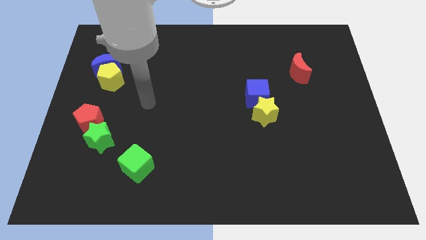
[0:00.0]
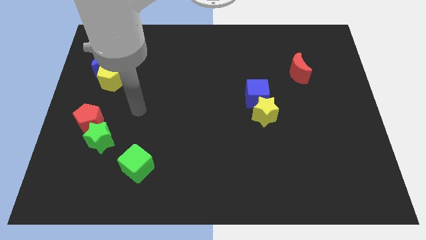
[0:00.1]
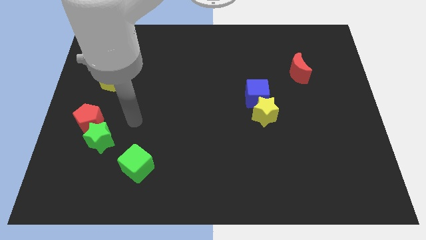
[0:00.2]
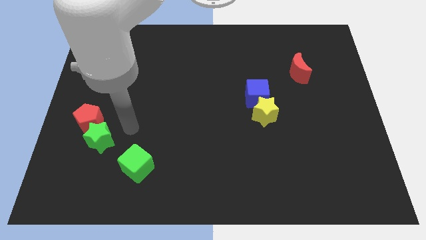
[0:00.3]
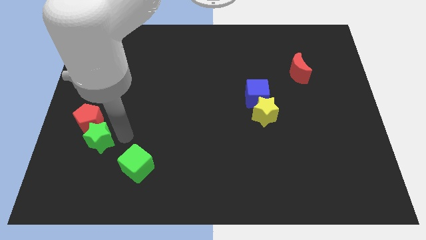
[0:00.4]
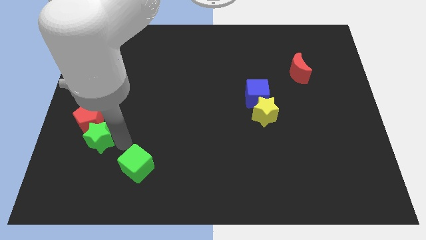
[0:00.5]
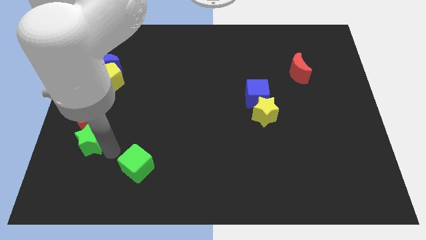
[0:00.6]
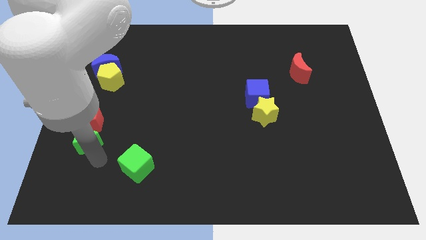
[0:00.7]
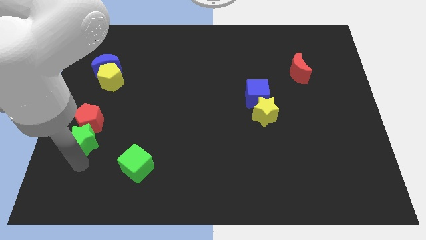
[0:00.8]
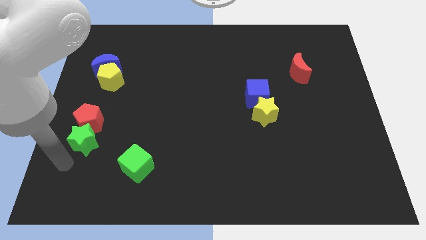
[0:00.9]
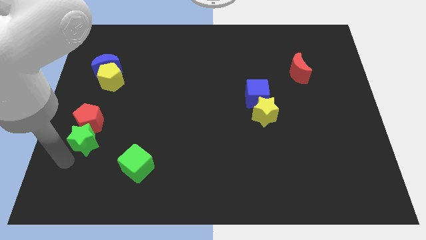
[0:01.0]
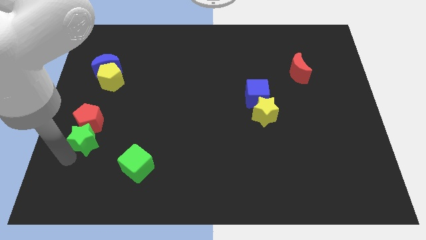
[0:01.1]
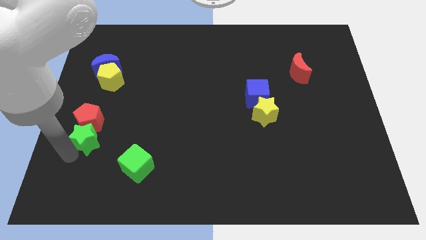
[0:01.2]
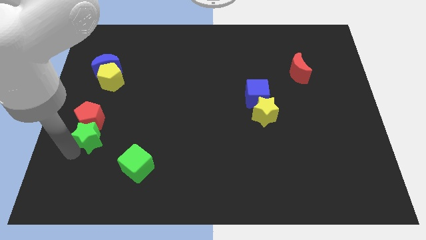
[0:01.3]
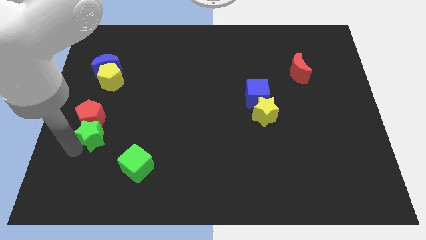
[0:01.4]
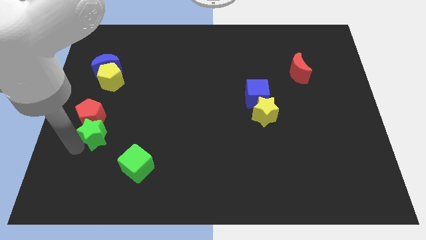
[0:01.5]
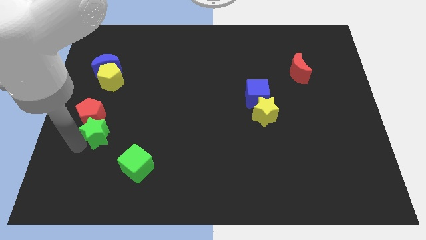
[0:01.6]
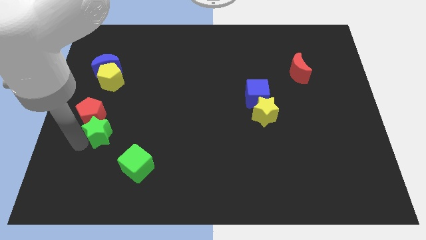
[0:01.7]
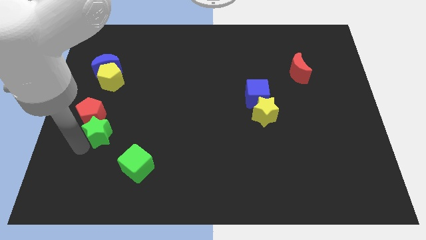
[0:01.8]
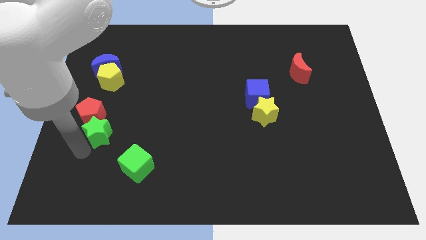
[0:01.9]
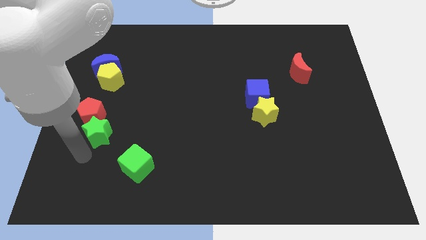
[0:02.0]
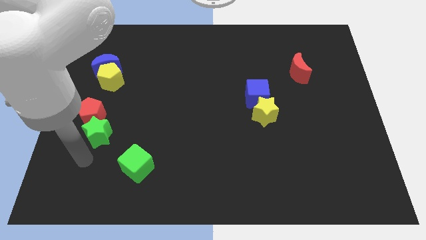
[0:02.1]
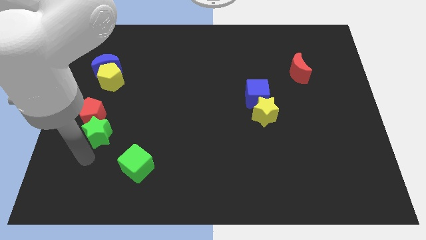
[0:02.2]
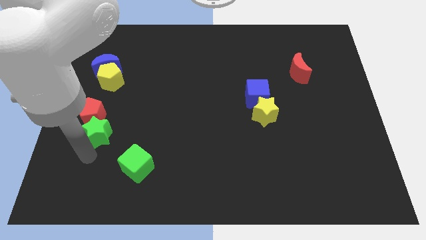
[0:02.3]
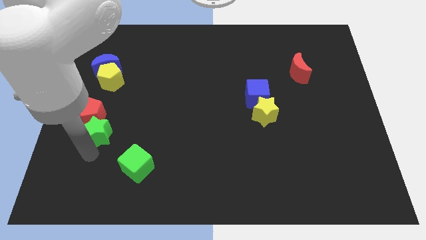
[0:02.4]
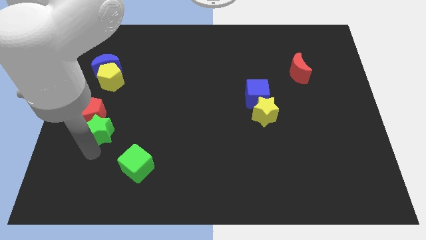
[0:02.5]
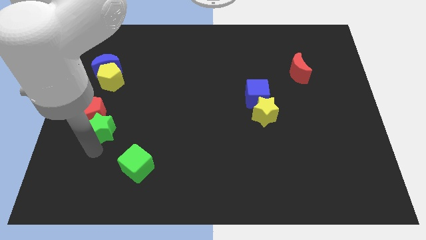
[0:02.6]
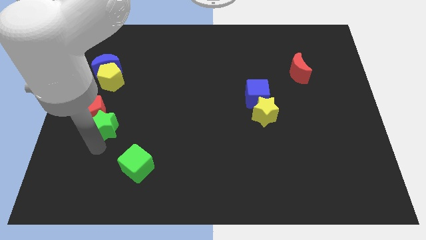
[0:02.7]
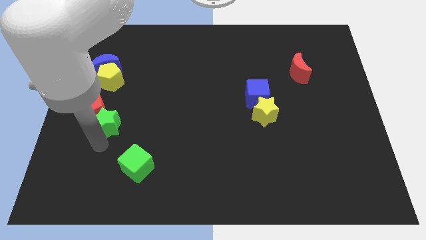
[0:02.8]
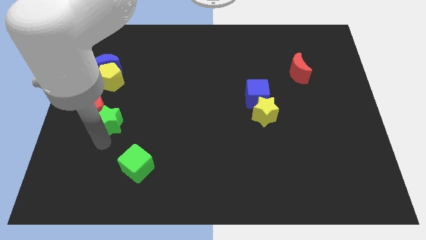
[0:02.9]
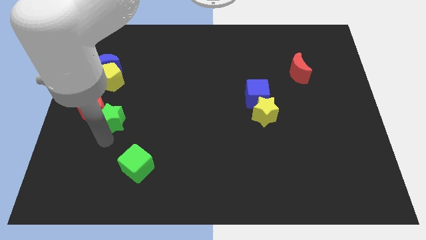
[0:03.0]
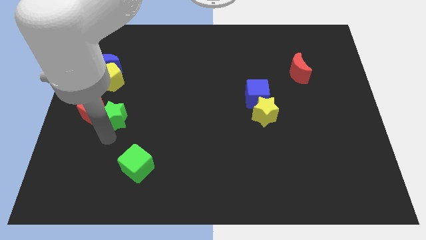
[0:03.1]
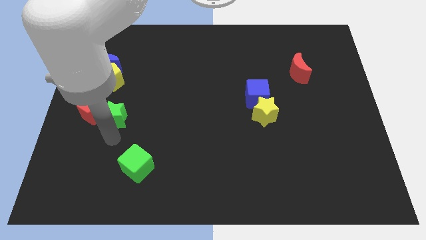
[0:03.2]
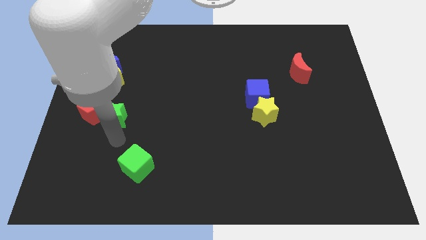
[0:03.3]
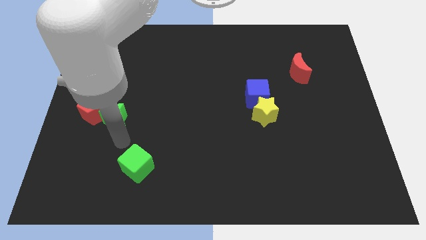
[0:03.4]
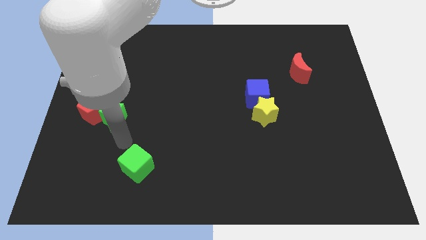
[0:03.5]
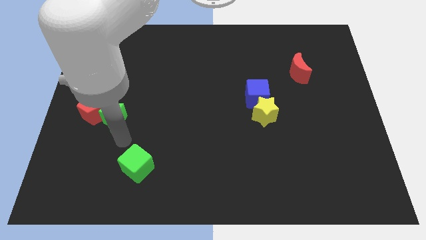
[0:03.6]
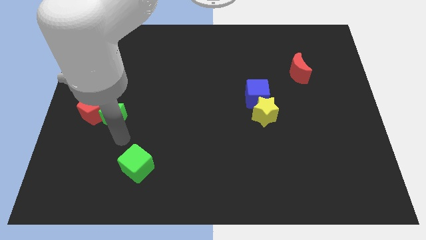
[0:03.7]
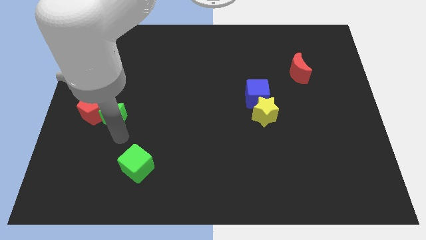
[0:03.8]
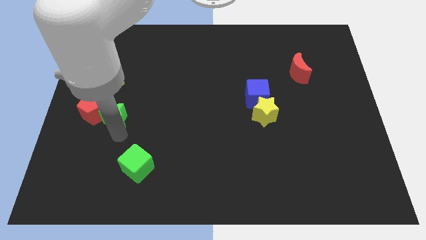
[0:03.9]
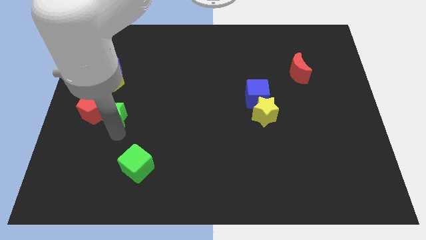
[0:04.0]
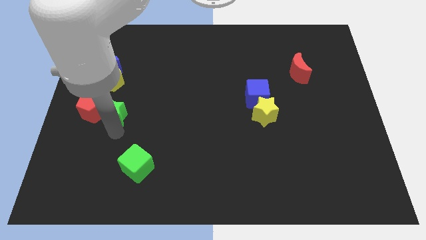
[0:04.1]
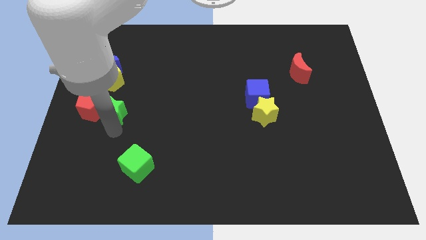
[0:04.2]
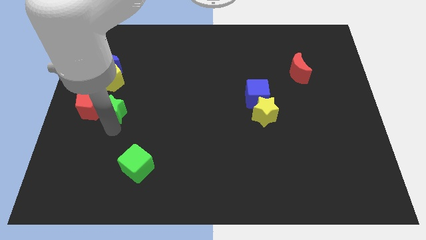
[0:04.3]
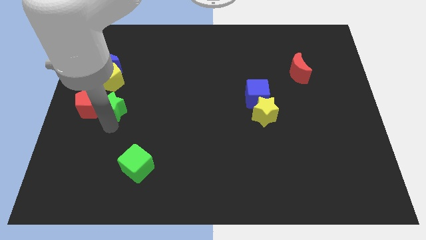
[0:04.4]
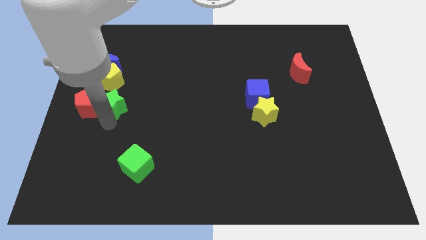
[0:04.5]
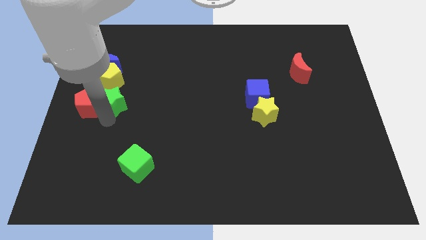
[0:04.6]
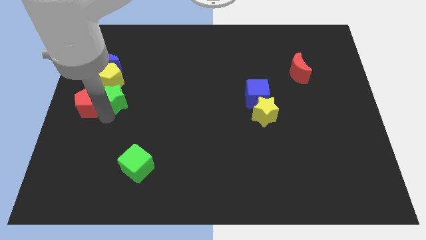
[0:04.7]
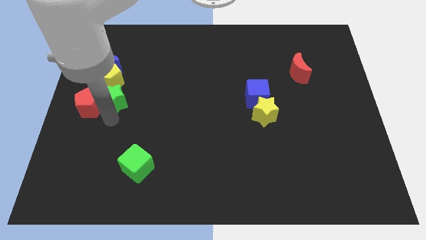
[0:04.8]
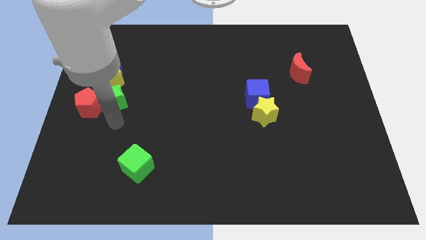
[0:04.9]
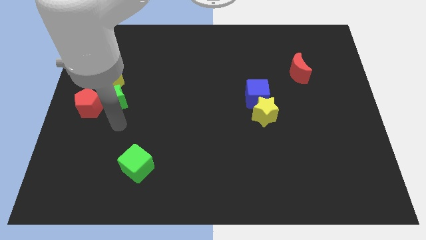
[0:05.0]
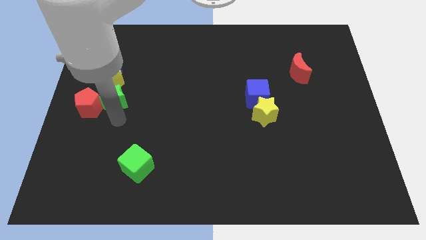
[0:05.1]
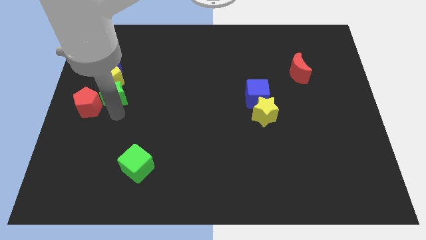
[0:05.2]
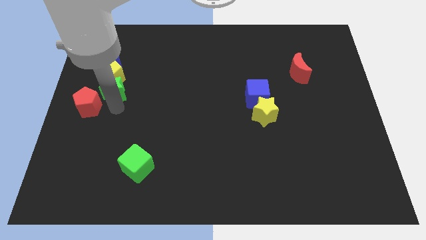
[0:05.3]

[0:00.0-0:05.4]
slide the green star next to the yellow pentagon

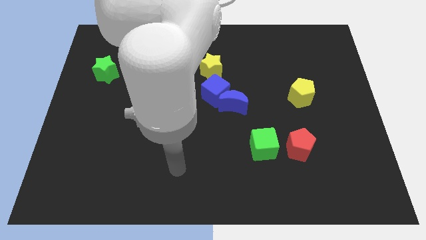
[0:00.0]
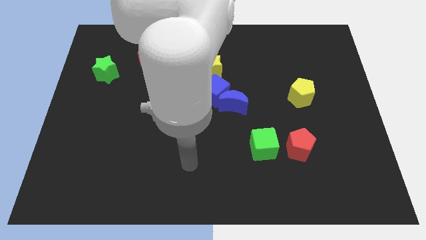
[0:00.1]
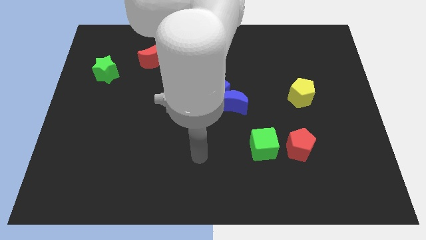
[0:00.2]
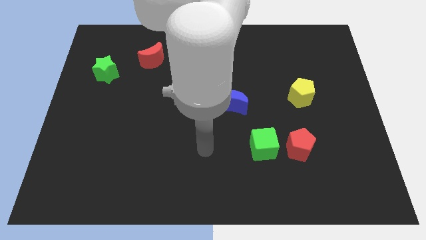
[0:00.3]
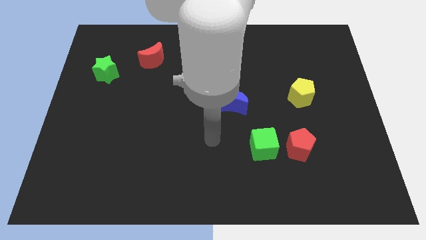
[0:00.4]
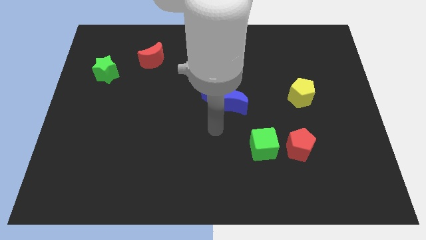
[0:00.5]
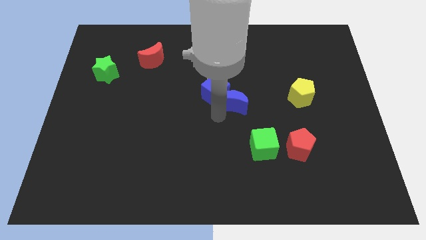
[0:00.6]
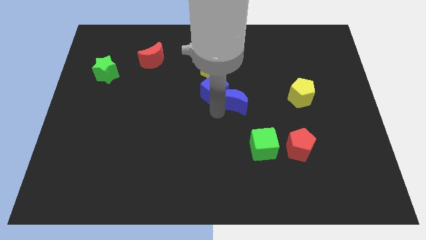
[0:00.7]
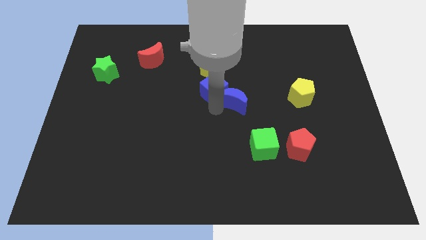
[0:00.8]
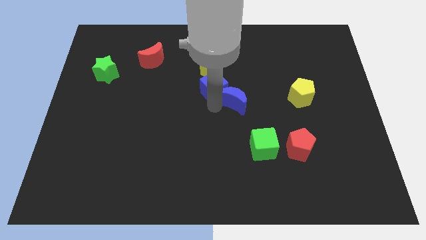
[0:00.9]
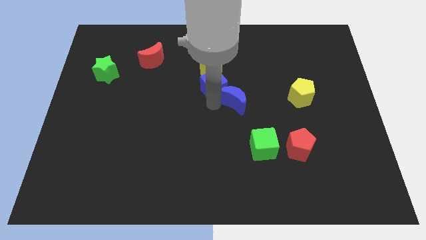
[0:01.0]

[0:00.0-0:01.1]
push the blue cube towards the yellow star
